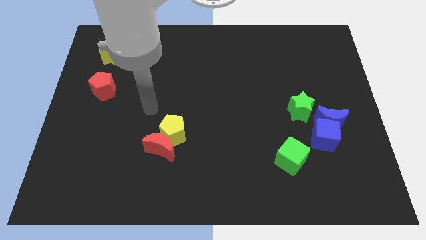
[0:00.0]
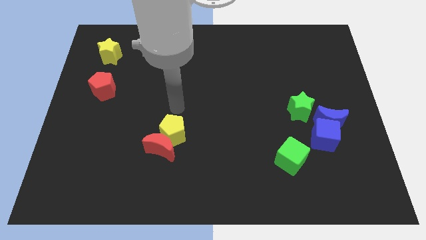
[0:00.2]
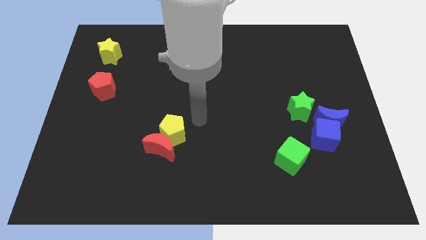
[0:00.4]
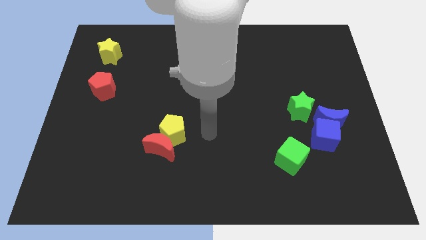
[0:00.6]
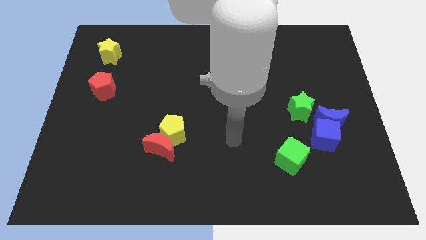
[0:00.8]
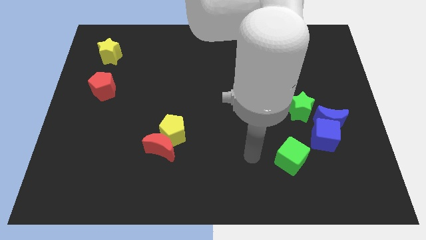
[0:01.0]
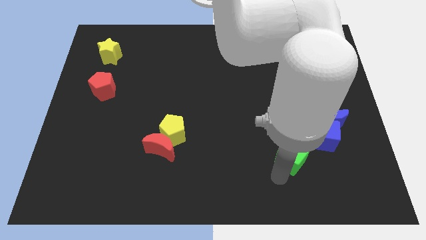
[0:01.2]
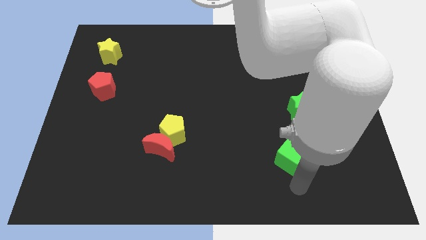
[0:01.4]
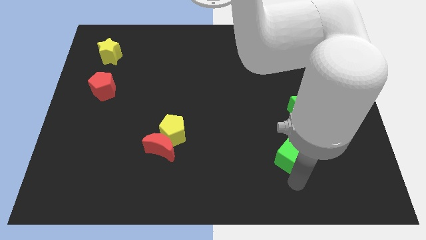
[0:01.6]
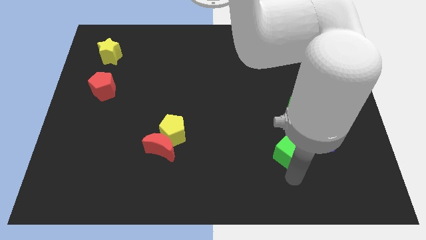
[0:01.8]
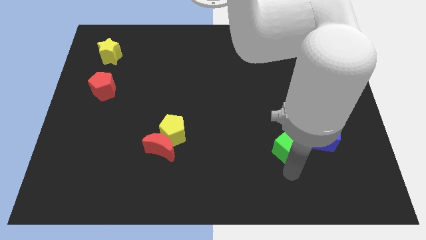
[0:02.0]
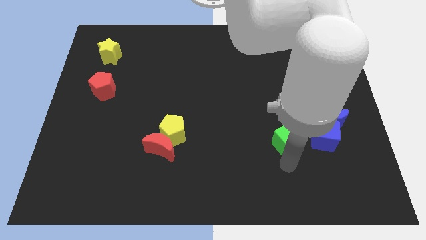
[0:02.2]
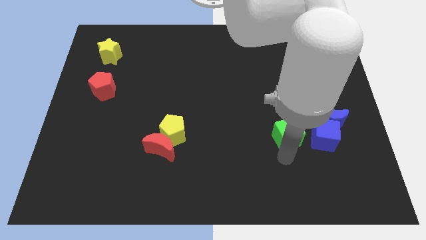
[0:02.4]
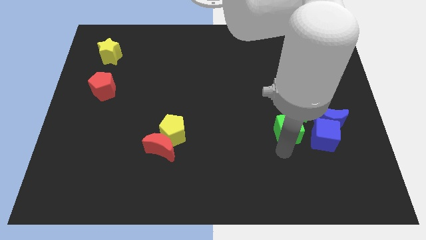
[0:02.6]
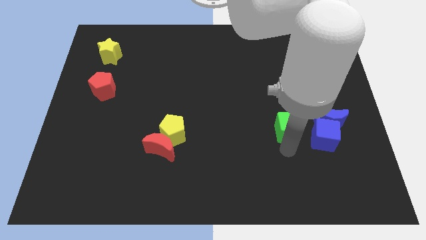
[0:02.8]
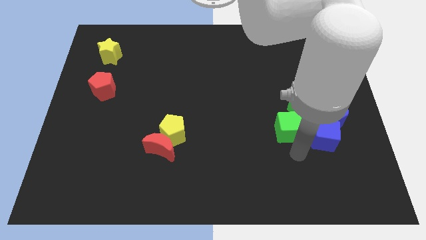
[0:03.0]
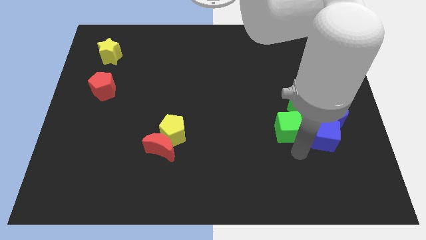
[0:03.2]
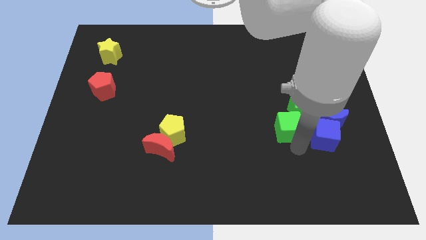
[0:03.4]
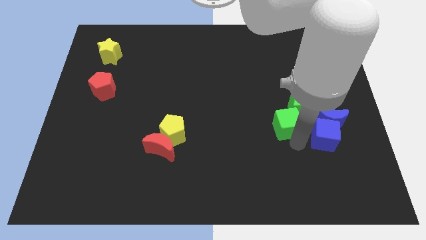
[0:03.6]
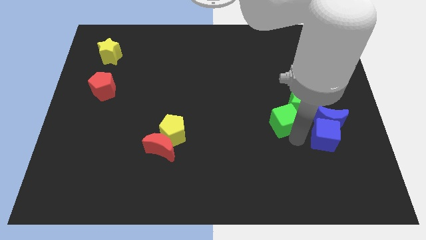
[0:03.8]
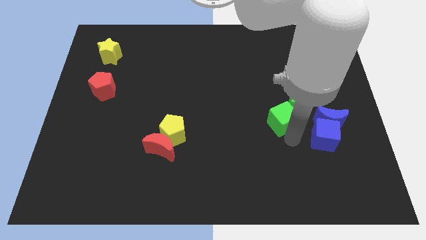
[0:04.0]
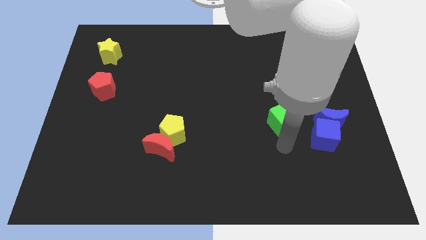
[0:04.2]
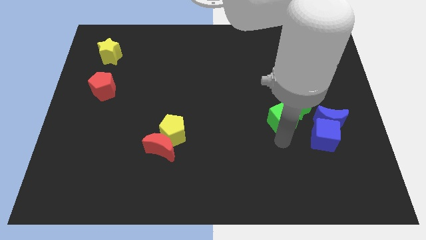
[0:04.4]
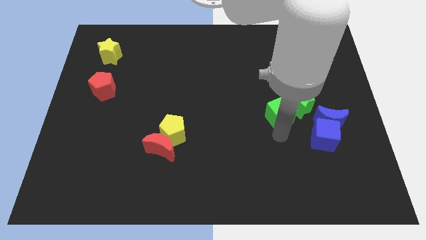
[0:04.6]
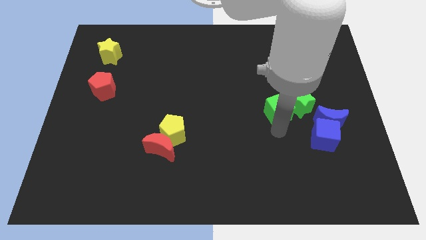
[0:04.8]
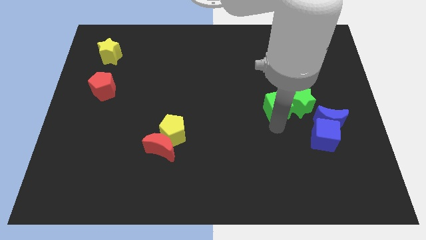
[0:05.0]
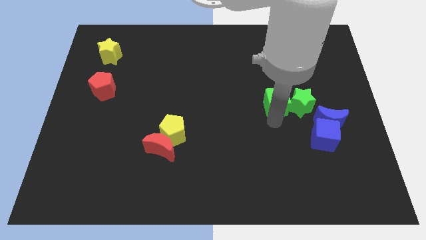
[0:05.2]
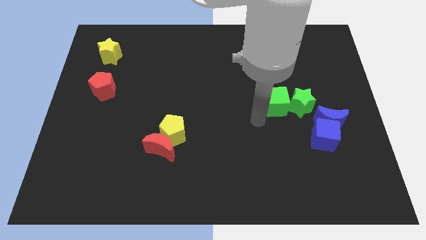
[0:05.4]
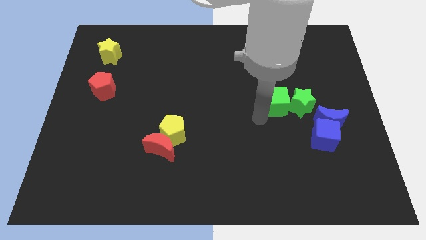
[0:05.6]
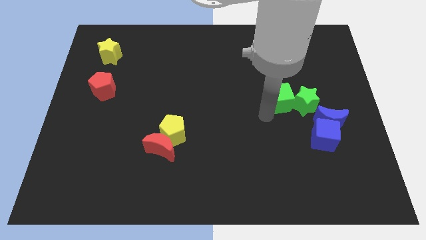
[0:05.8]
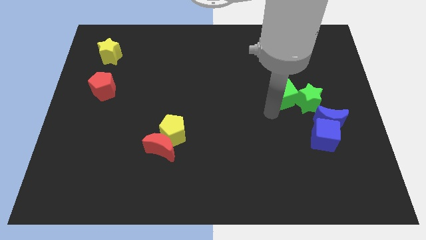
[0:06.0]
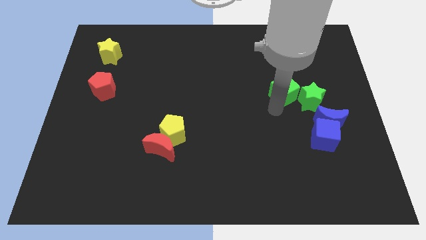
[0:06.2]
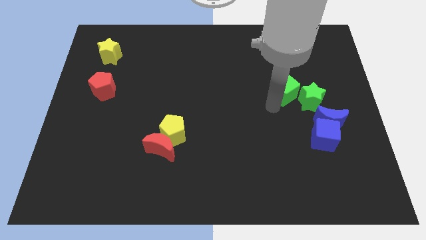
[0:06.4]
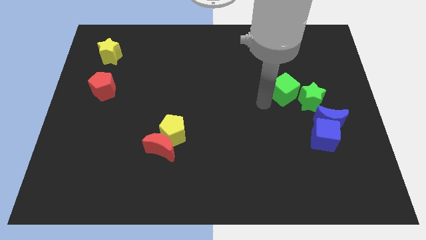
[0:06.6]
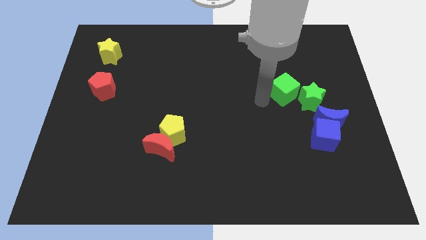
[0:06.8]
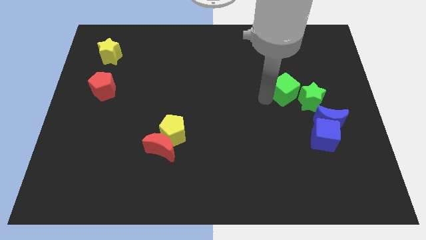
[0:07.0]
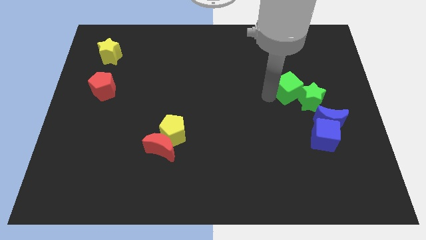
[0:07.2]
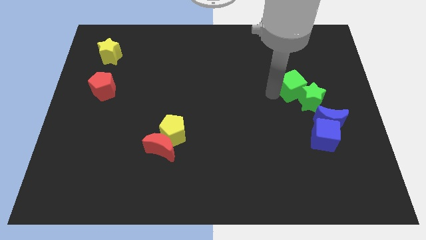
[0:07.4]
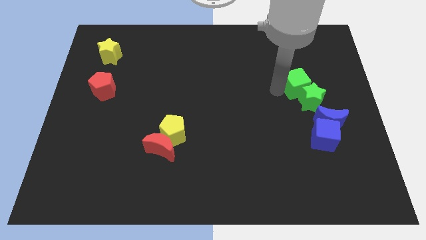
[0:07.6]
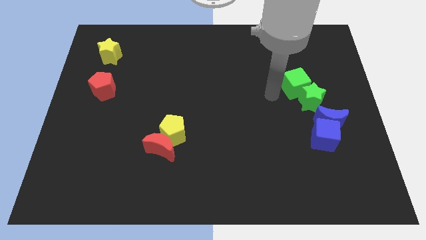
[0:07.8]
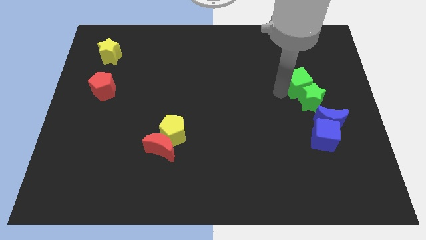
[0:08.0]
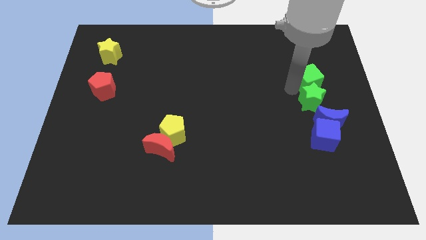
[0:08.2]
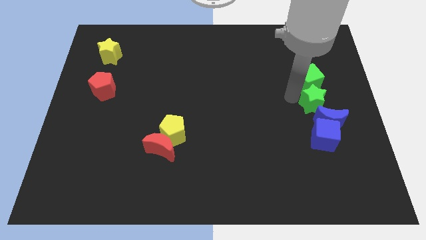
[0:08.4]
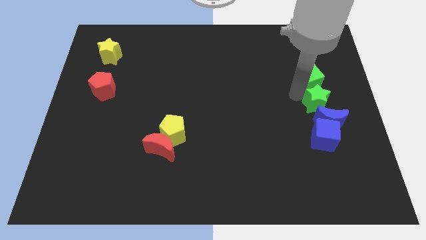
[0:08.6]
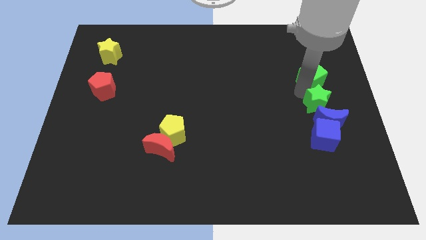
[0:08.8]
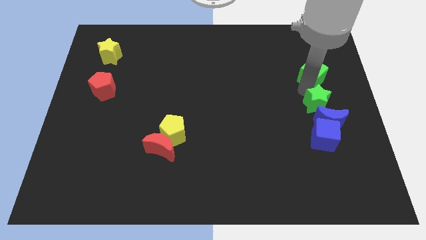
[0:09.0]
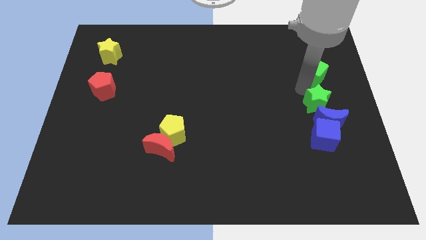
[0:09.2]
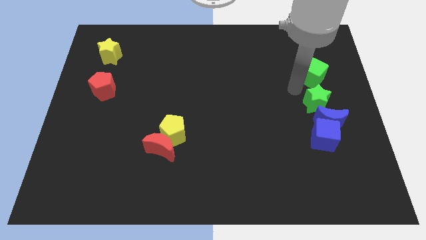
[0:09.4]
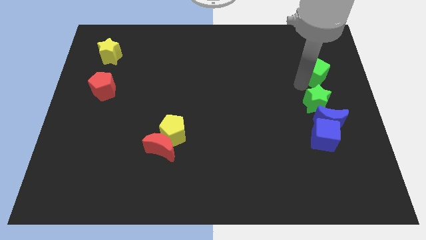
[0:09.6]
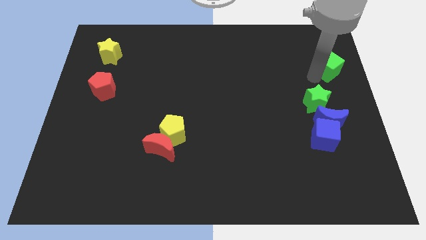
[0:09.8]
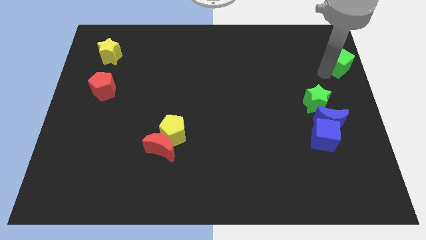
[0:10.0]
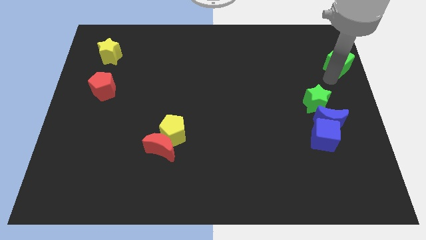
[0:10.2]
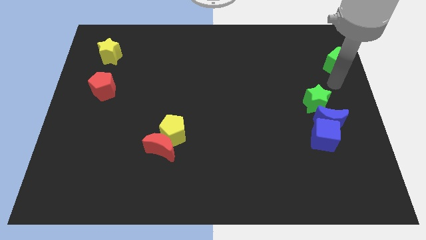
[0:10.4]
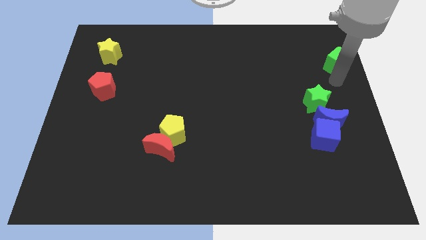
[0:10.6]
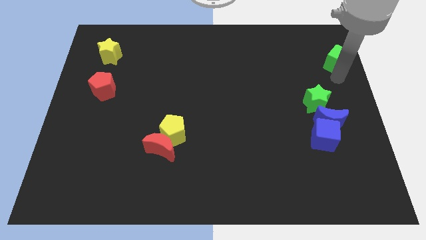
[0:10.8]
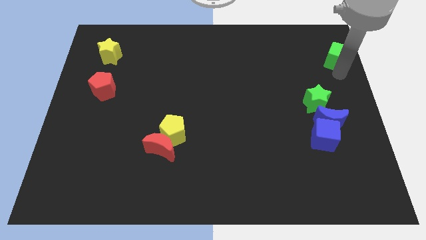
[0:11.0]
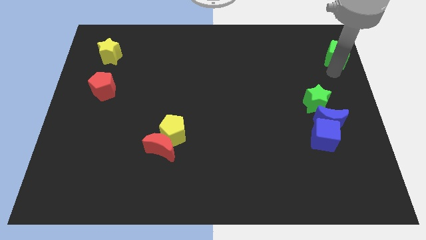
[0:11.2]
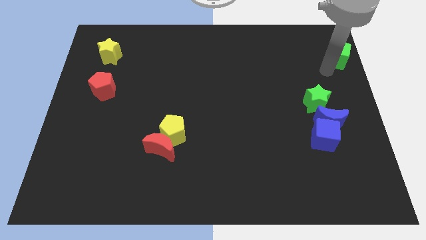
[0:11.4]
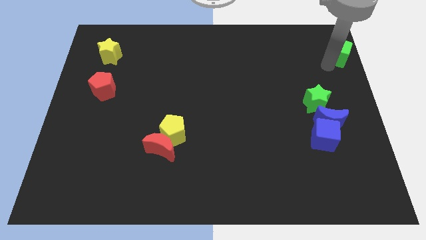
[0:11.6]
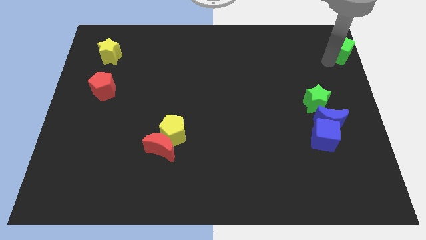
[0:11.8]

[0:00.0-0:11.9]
push the green cube to the upper right corner
